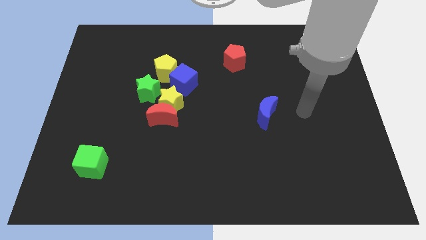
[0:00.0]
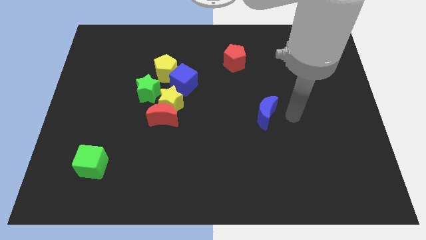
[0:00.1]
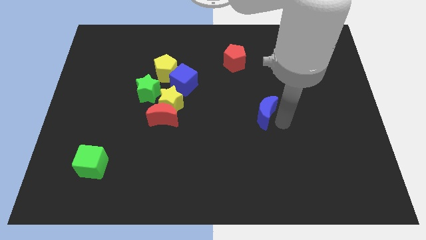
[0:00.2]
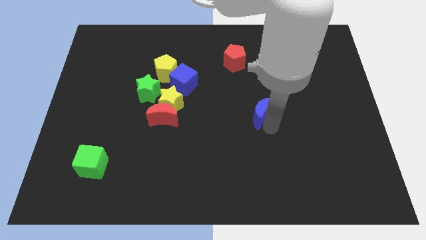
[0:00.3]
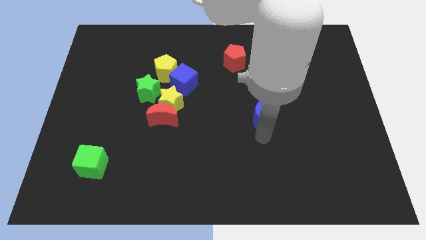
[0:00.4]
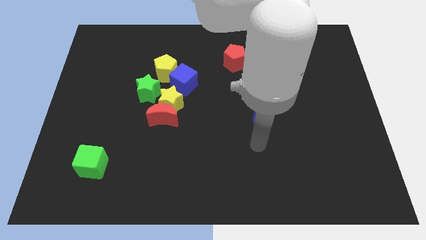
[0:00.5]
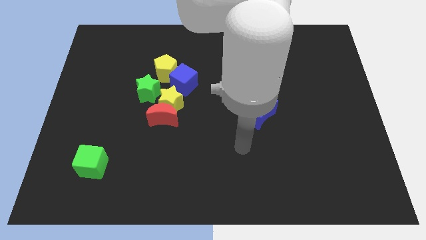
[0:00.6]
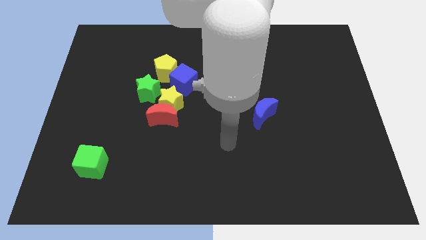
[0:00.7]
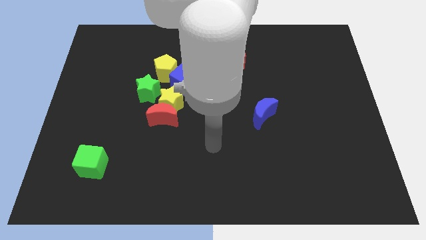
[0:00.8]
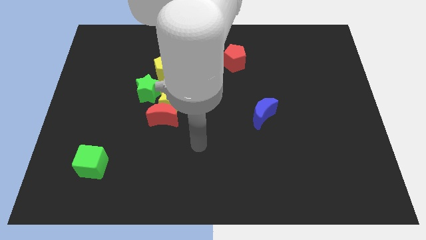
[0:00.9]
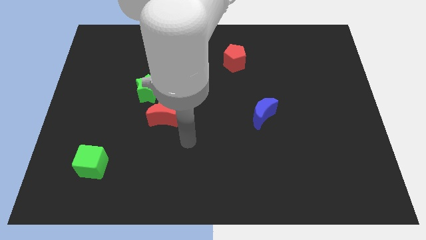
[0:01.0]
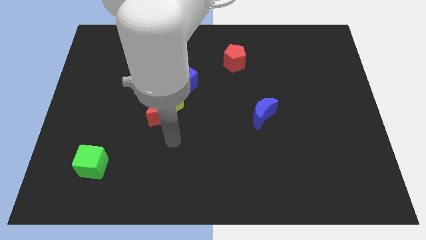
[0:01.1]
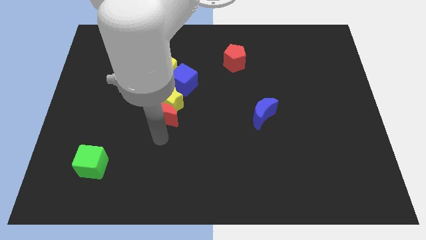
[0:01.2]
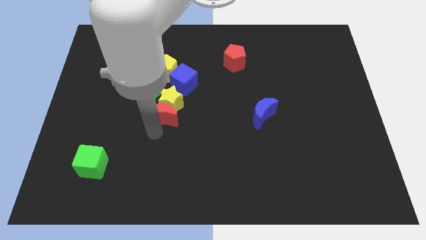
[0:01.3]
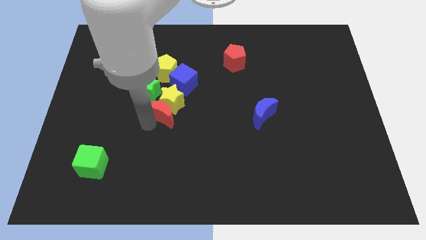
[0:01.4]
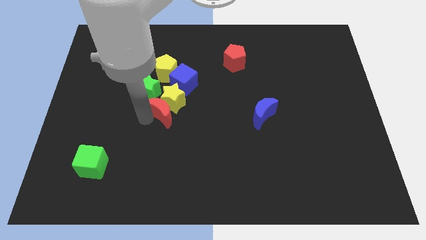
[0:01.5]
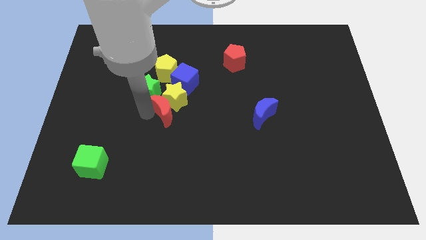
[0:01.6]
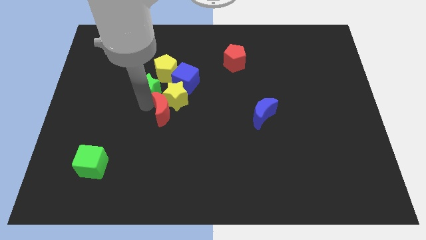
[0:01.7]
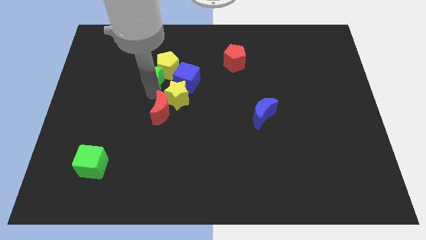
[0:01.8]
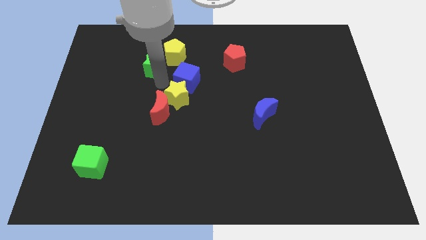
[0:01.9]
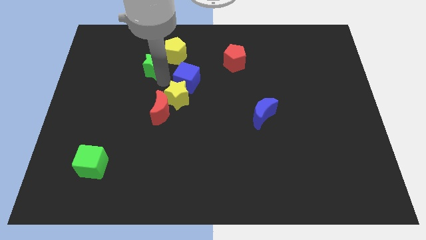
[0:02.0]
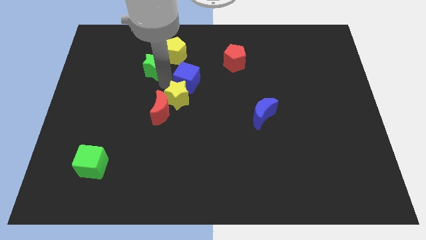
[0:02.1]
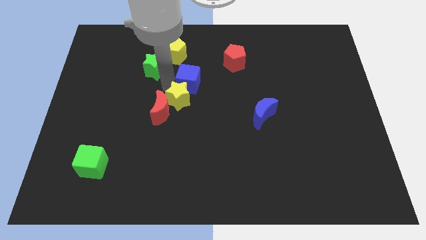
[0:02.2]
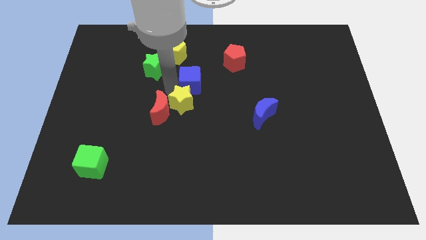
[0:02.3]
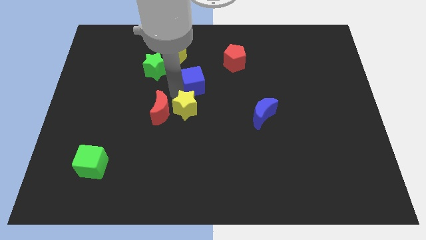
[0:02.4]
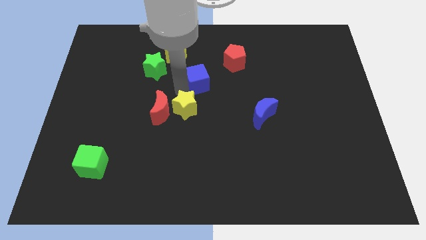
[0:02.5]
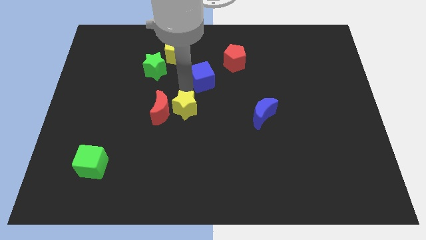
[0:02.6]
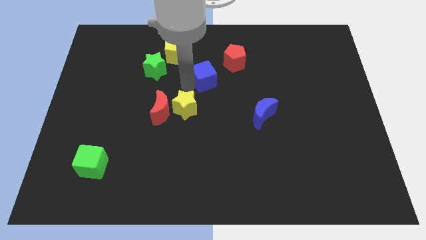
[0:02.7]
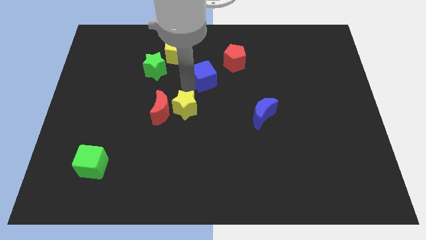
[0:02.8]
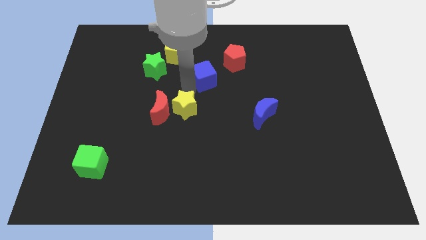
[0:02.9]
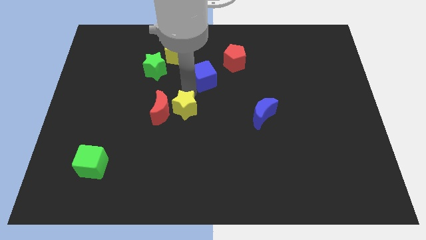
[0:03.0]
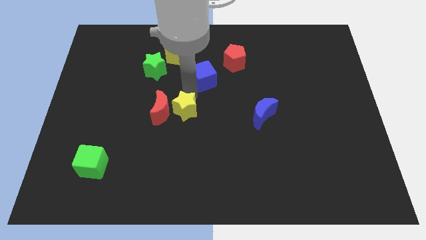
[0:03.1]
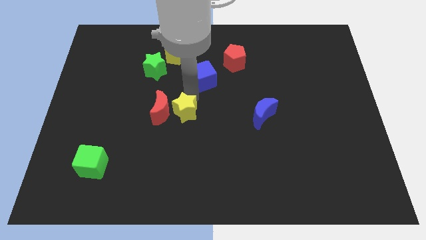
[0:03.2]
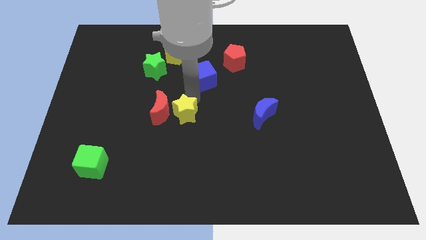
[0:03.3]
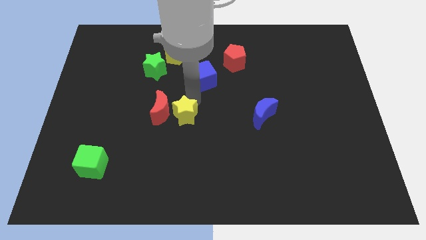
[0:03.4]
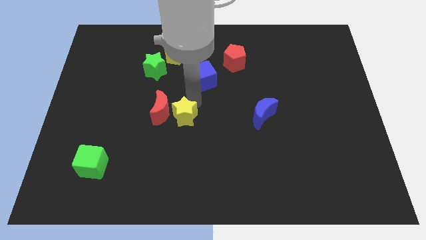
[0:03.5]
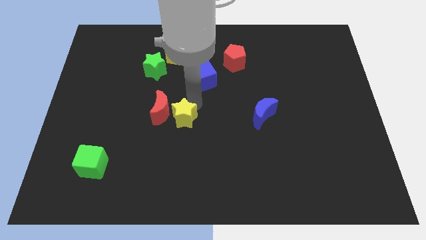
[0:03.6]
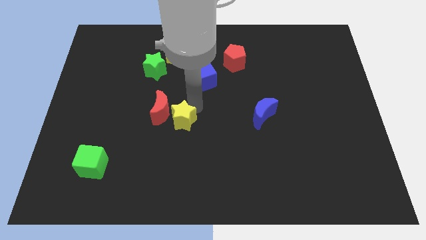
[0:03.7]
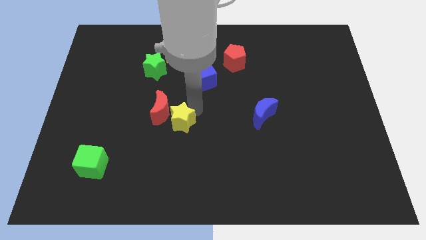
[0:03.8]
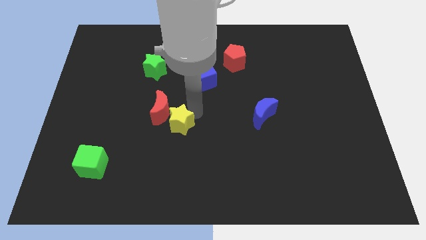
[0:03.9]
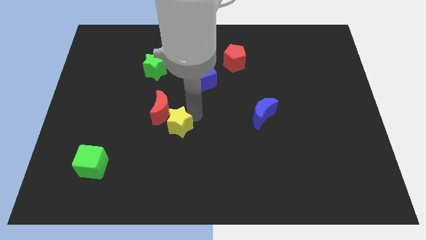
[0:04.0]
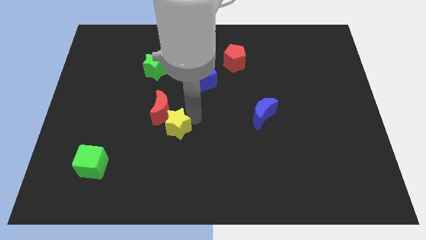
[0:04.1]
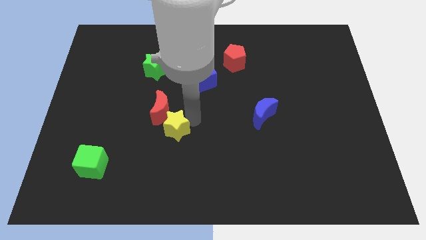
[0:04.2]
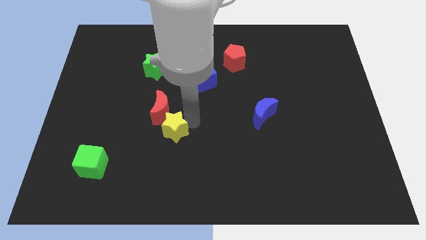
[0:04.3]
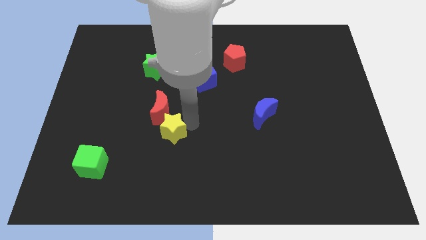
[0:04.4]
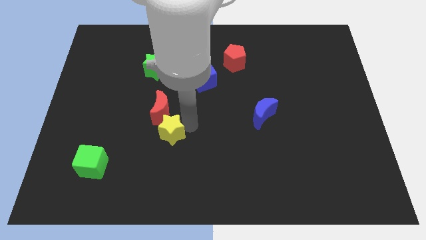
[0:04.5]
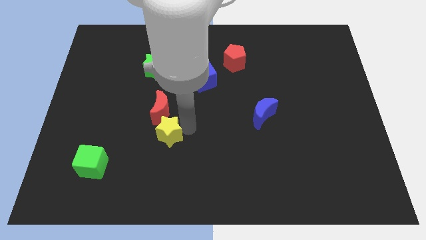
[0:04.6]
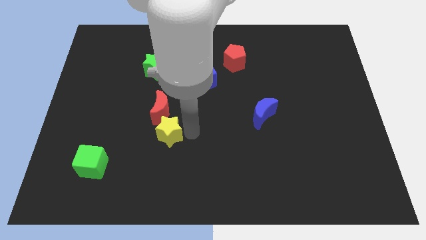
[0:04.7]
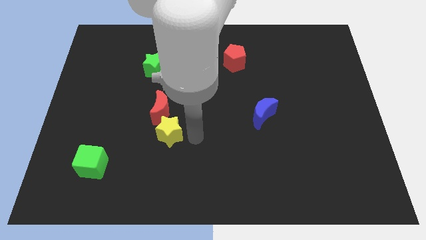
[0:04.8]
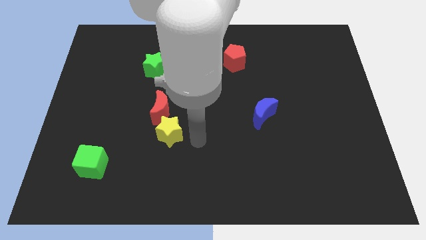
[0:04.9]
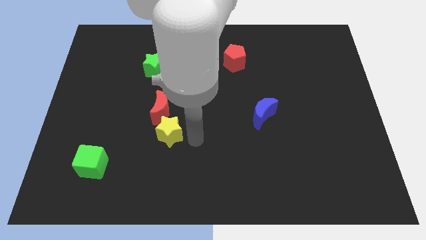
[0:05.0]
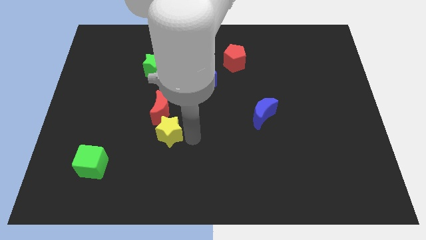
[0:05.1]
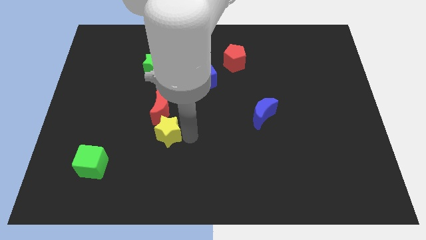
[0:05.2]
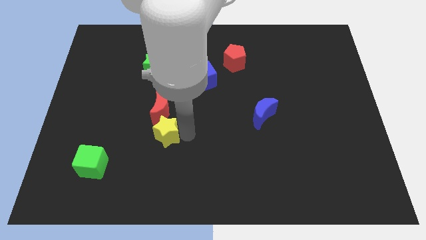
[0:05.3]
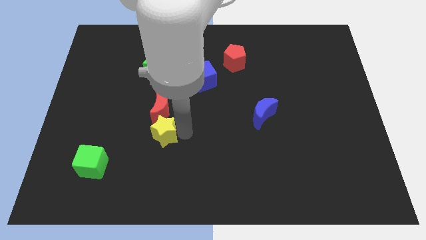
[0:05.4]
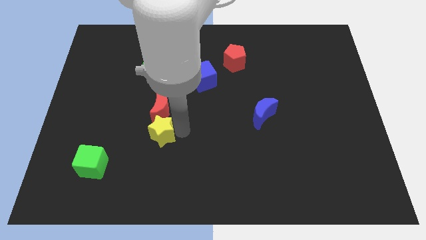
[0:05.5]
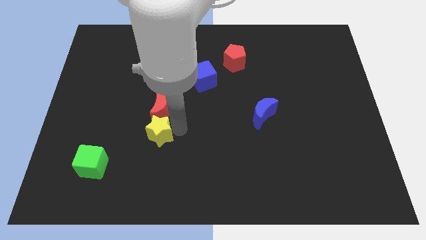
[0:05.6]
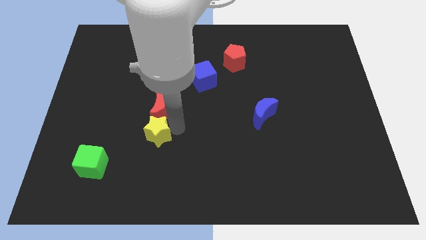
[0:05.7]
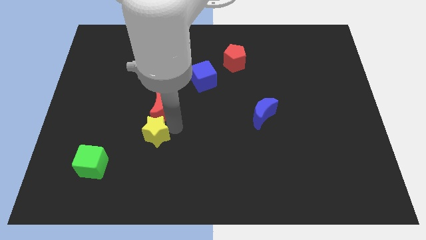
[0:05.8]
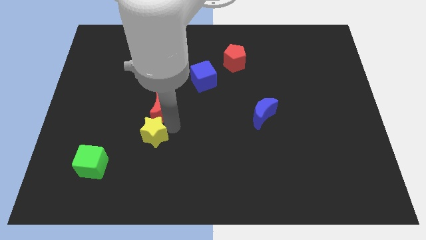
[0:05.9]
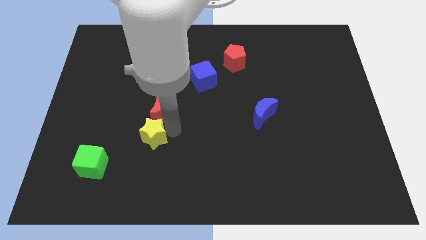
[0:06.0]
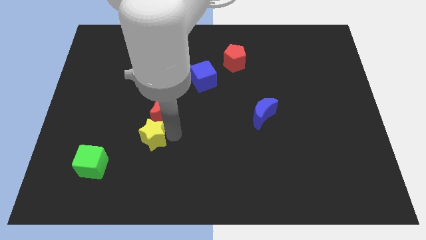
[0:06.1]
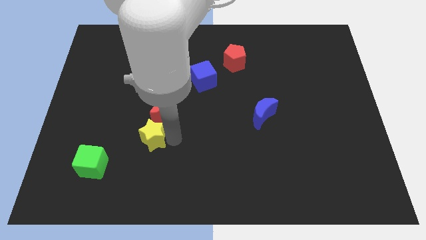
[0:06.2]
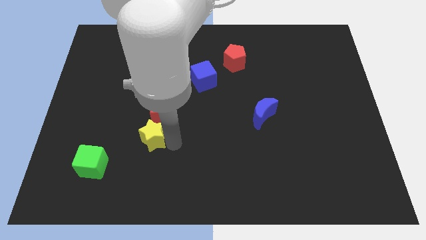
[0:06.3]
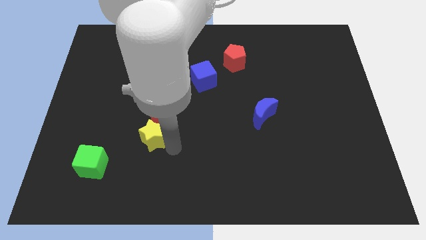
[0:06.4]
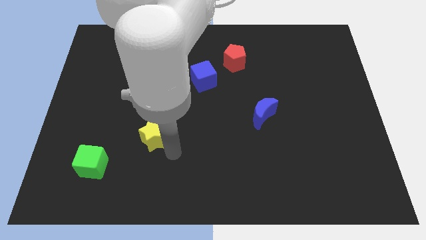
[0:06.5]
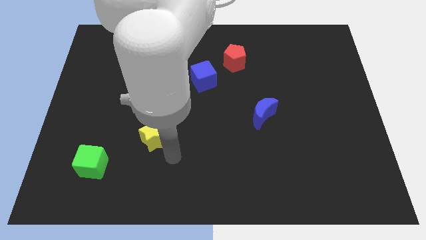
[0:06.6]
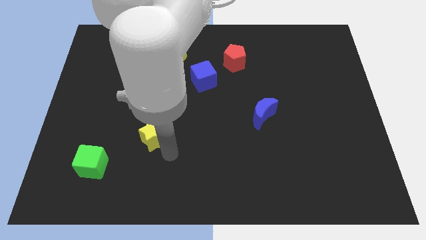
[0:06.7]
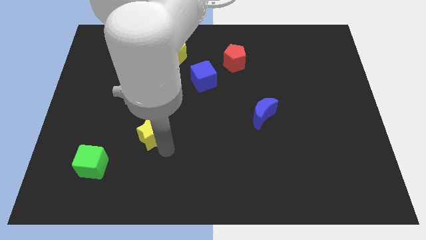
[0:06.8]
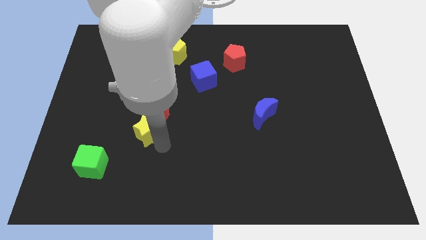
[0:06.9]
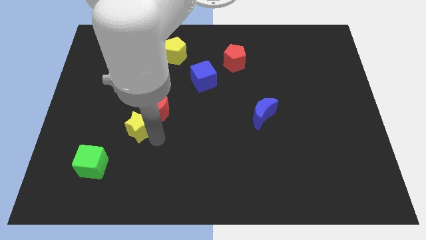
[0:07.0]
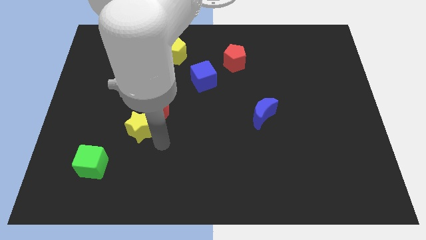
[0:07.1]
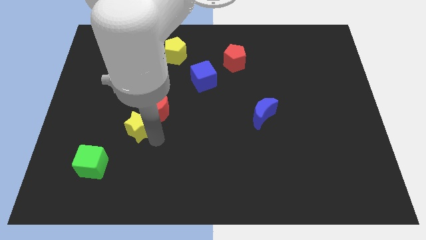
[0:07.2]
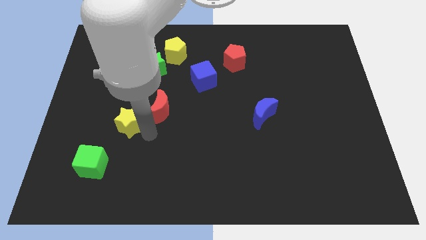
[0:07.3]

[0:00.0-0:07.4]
slide the yellow star to the left side of the red moon
